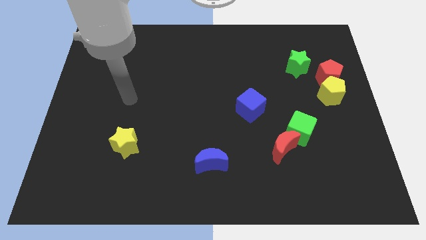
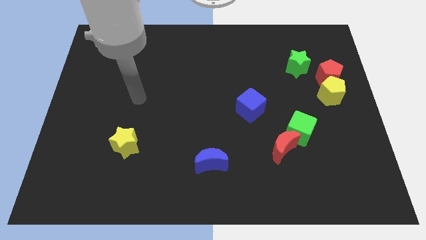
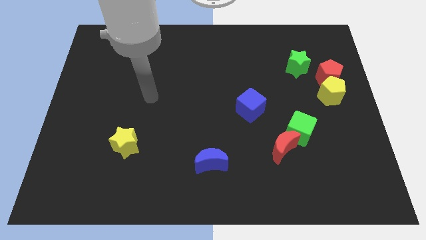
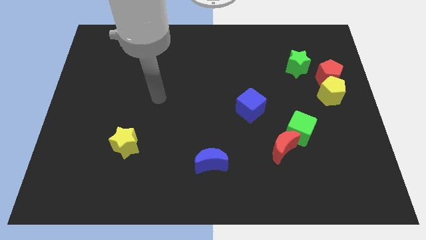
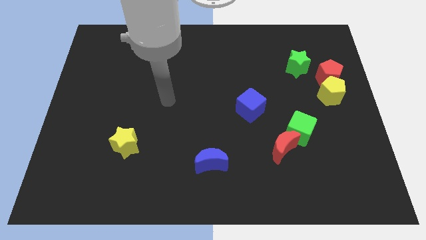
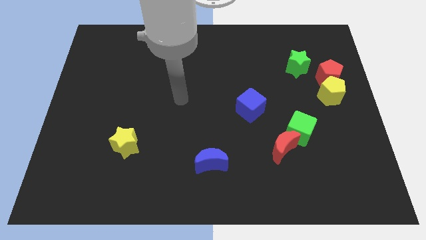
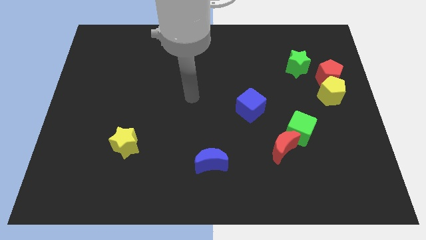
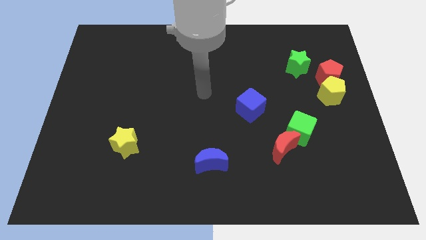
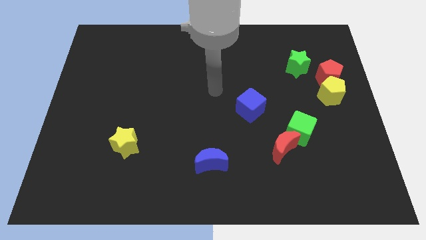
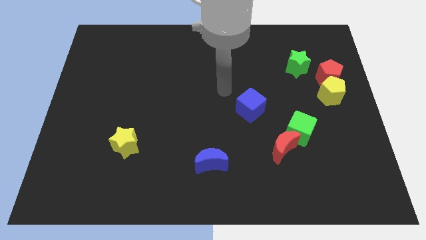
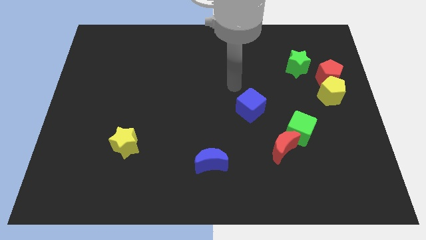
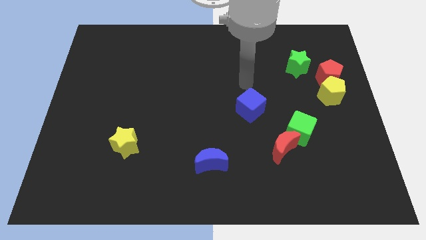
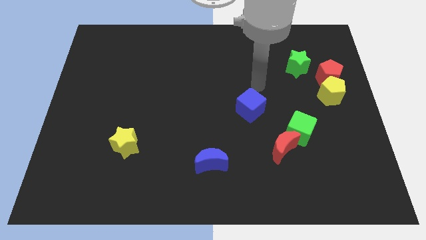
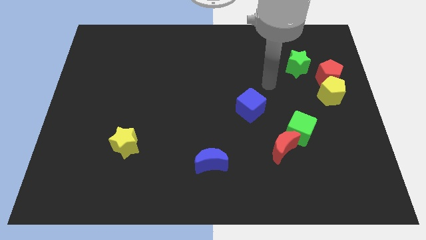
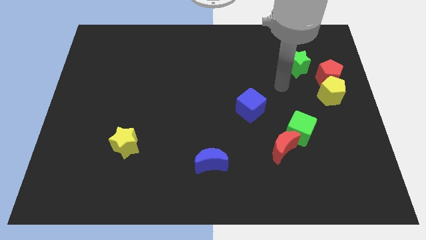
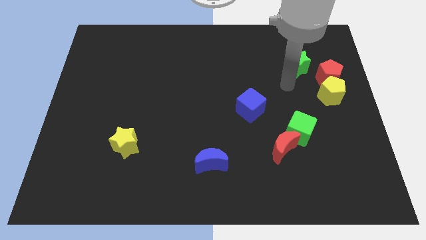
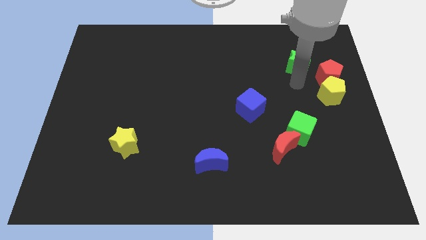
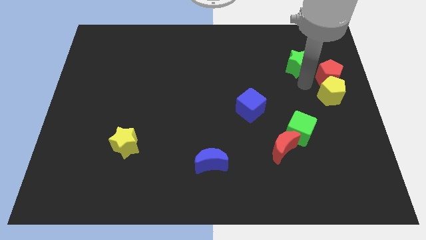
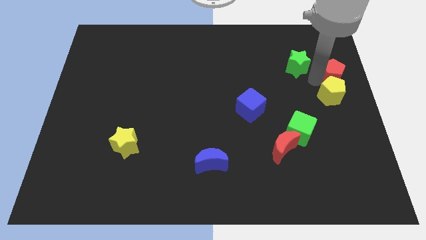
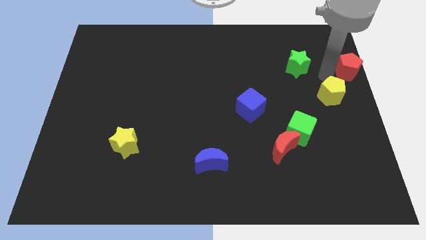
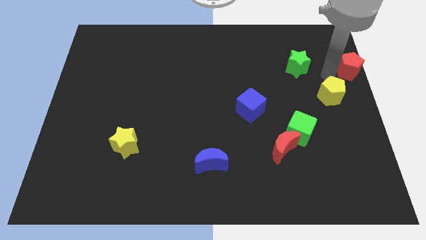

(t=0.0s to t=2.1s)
pull the yellow pentagon apart from the red pentagon

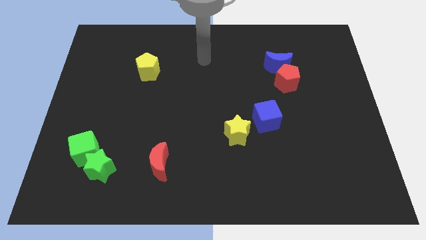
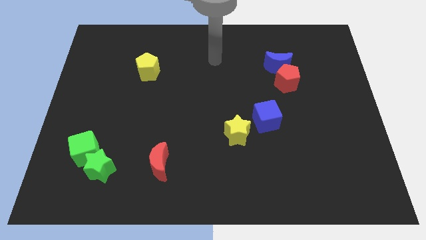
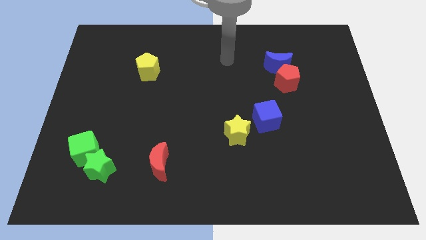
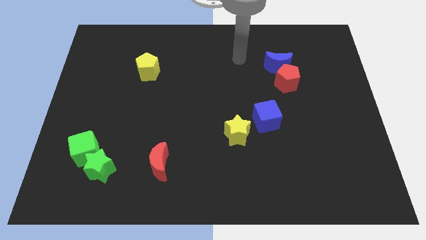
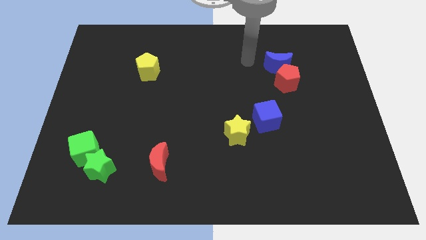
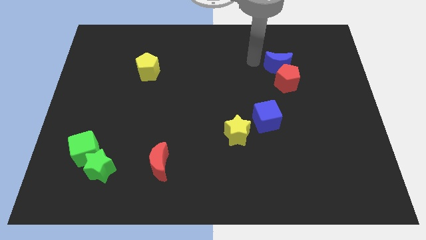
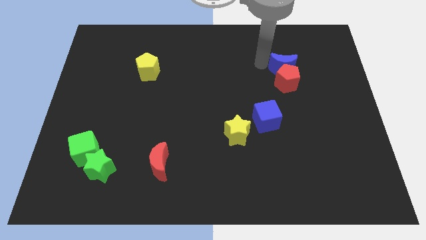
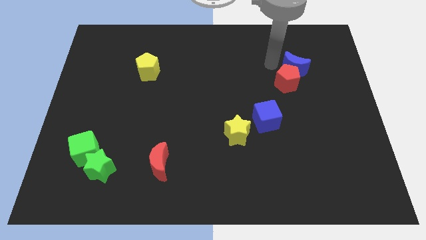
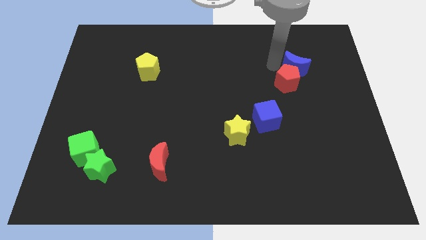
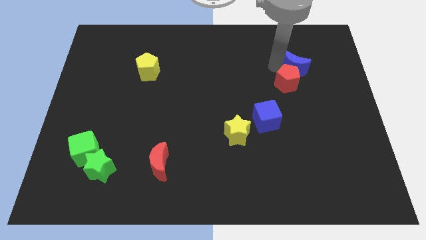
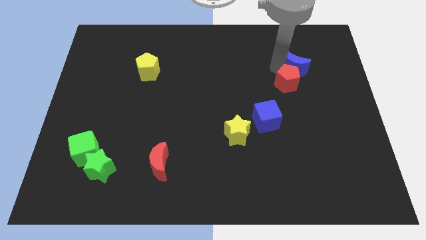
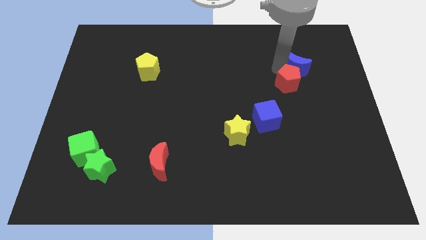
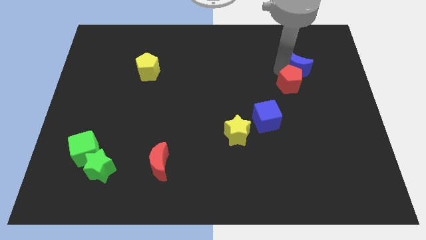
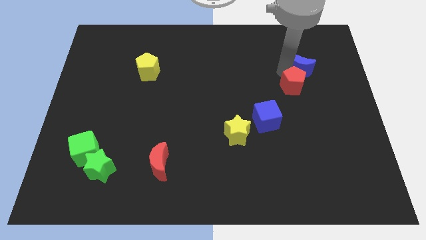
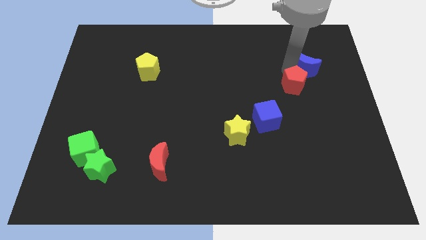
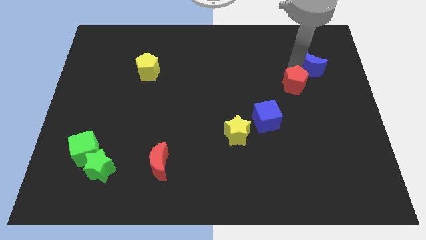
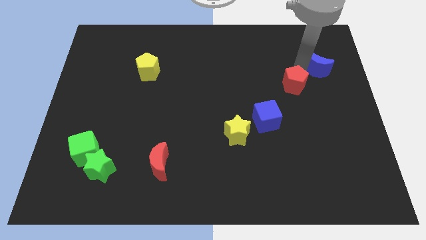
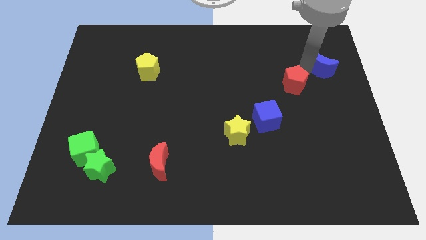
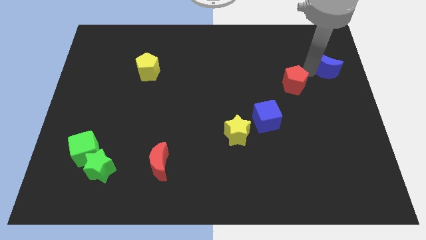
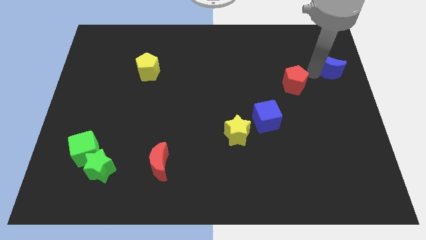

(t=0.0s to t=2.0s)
pull the red pentagon apart from the blue moon

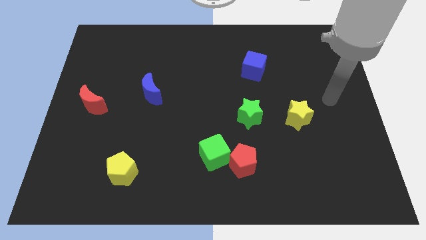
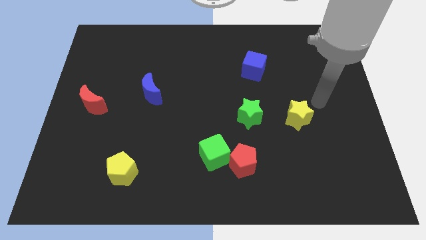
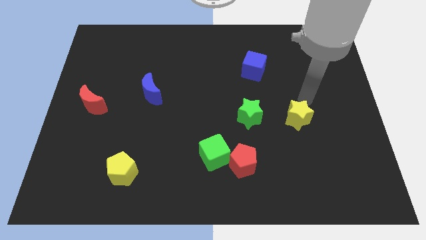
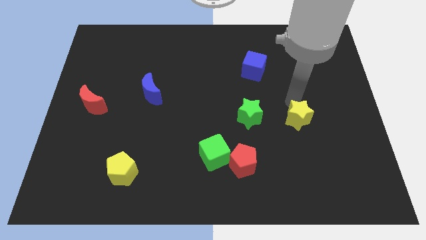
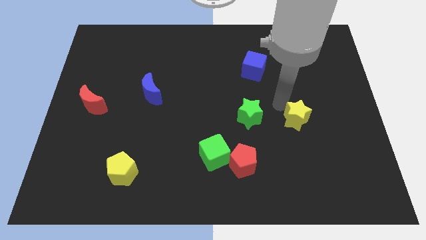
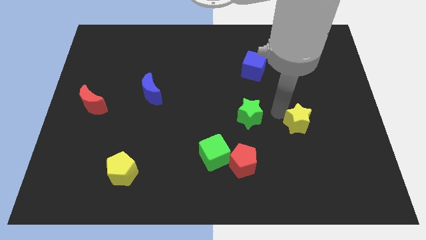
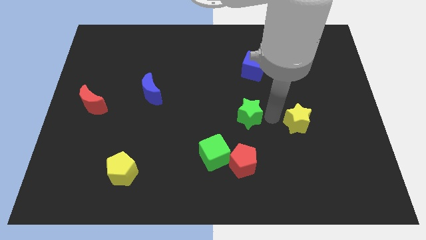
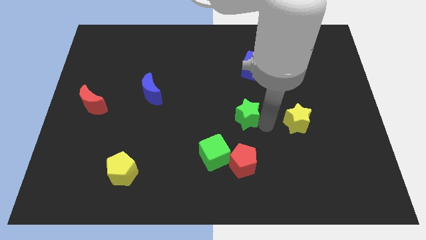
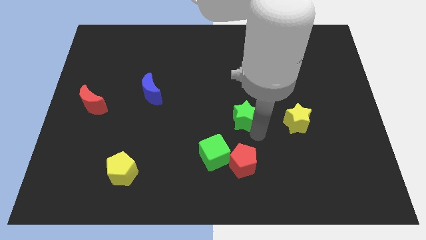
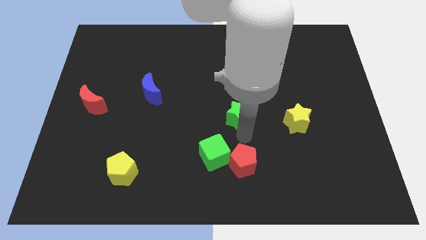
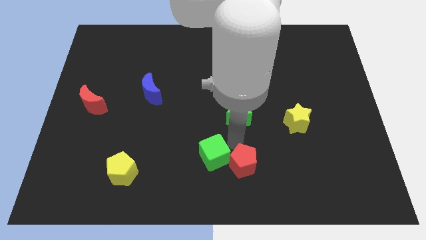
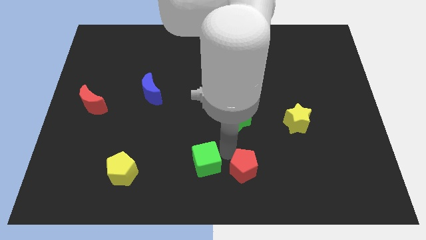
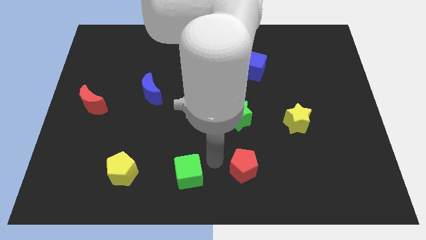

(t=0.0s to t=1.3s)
separate the red pentagon from the green cube

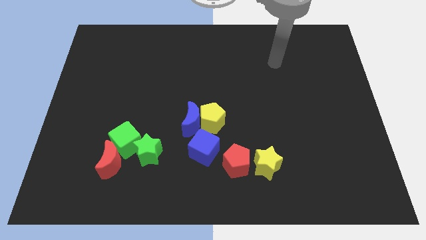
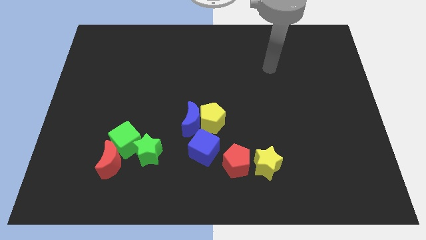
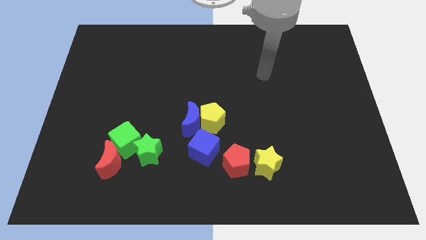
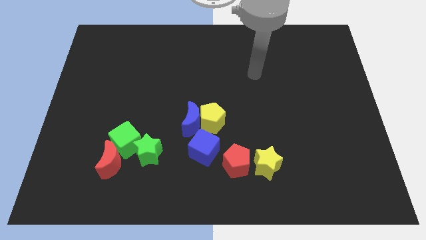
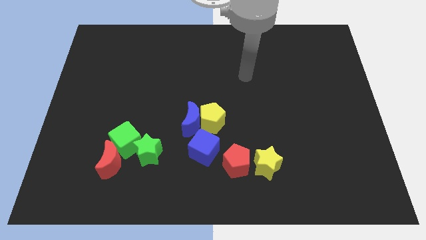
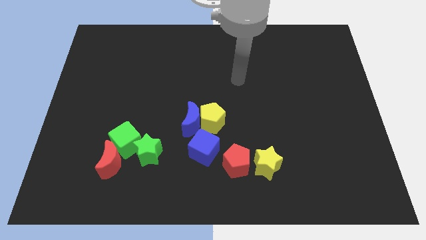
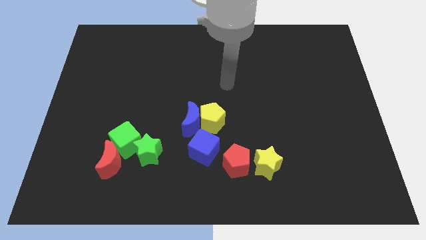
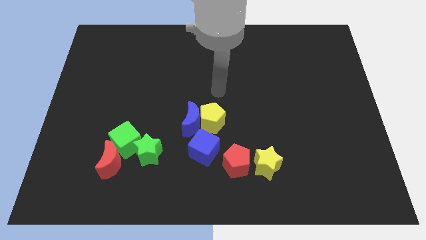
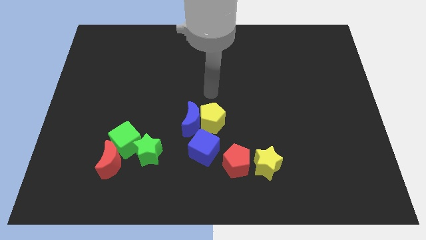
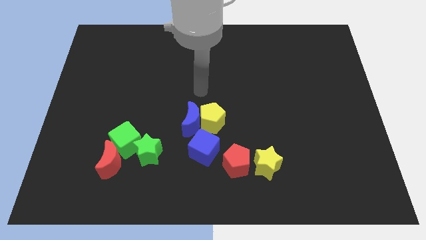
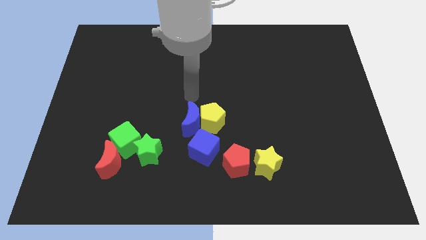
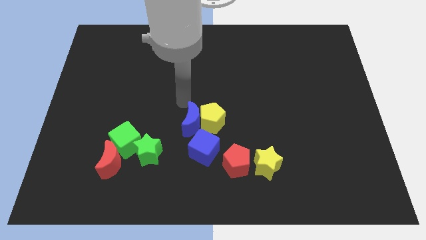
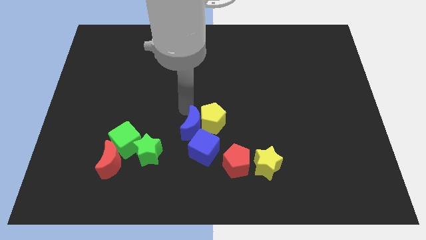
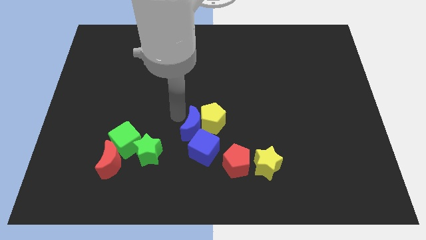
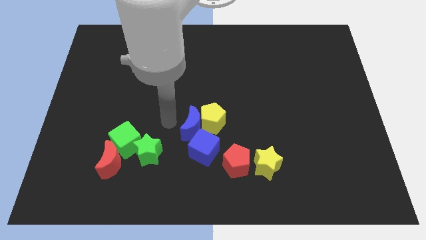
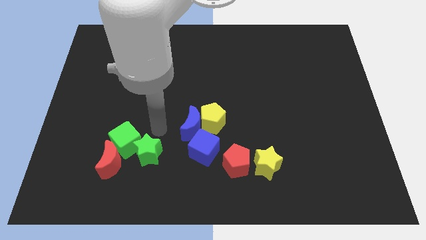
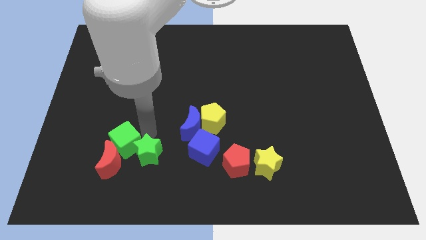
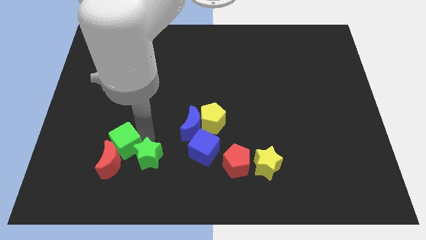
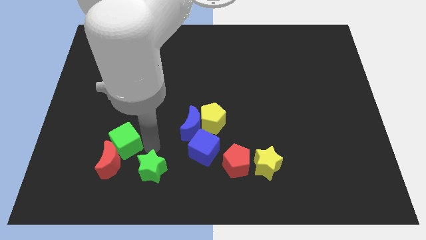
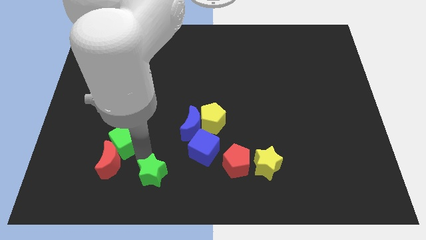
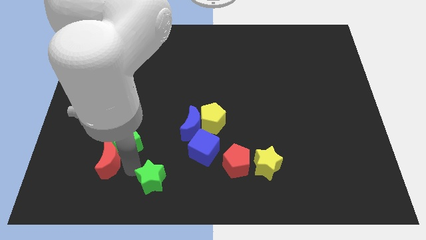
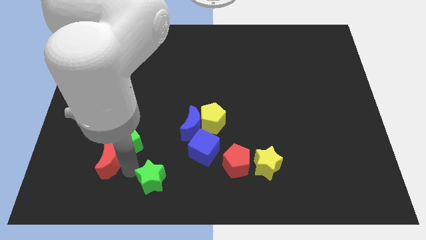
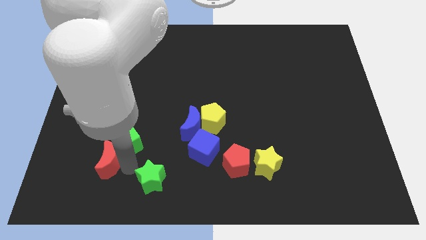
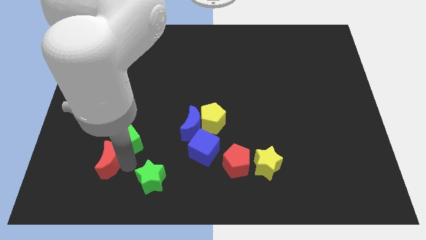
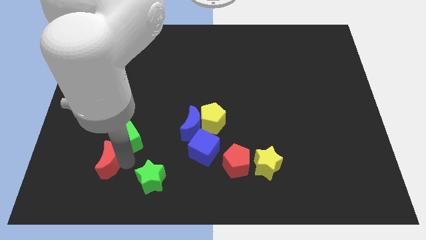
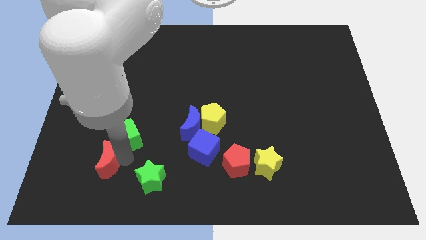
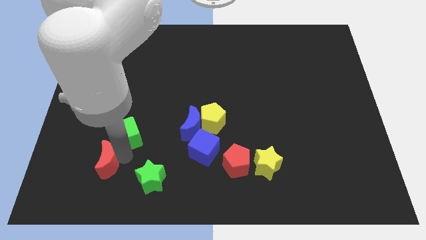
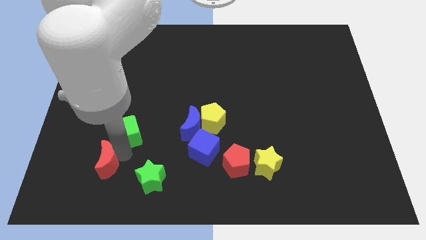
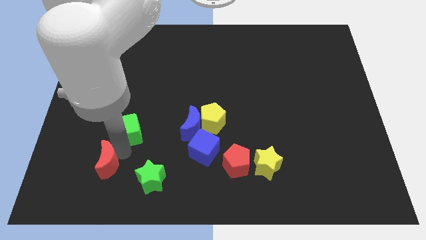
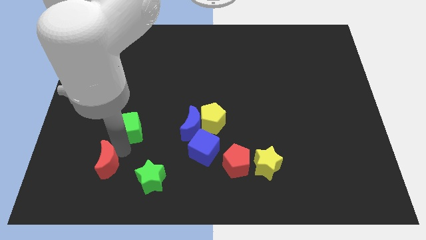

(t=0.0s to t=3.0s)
separate the green cube from the green star and red moon

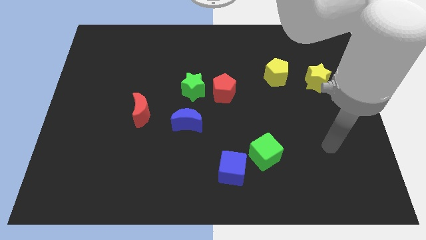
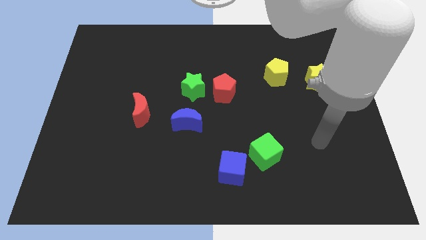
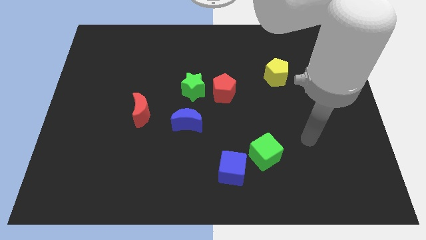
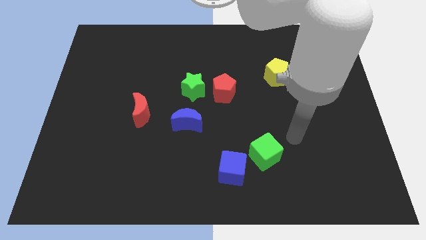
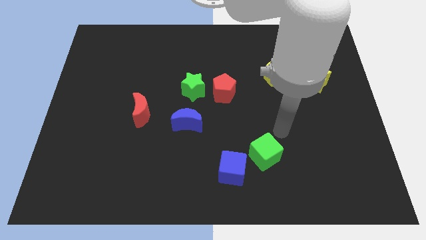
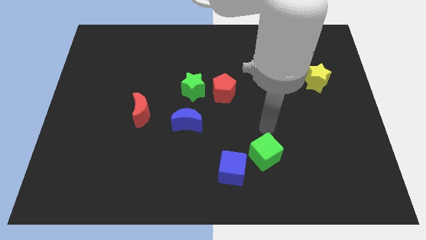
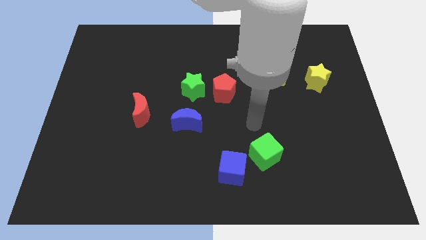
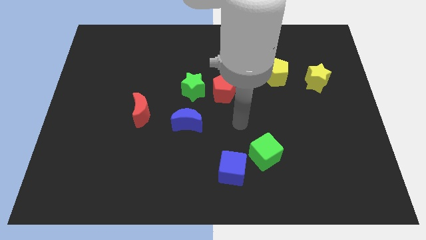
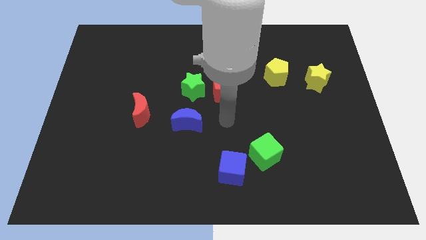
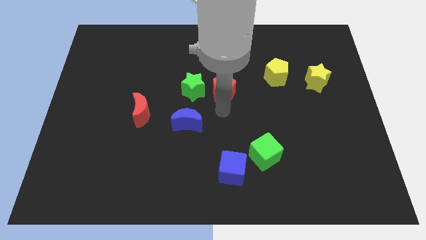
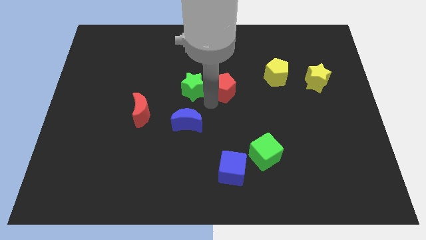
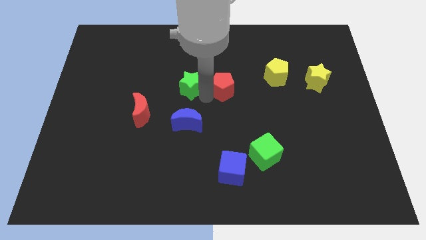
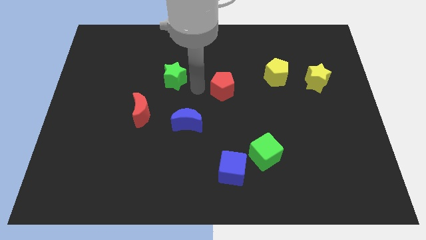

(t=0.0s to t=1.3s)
move the red pentagon away from the green star
